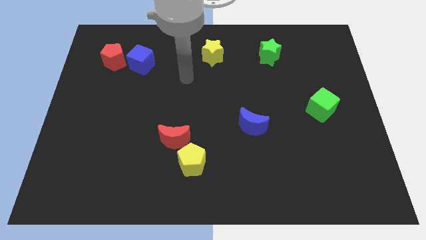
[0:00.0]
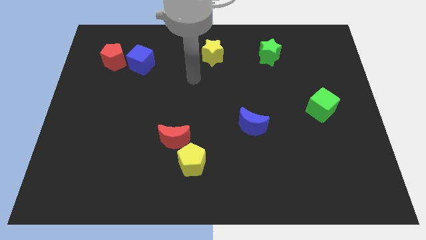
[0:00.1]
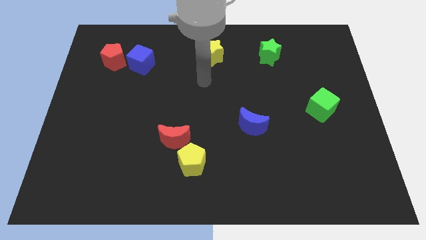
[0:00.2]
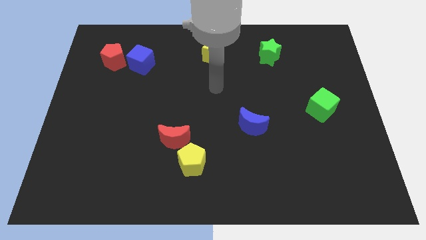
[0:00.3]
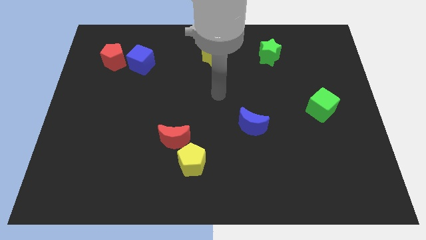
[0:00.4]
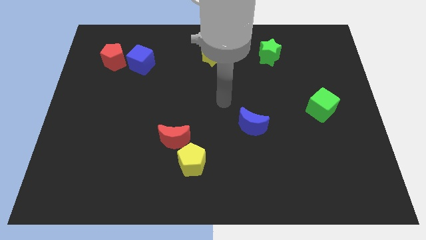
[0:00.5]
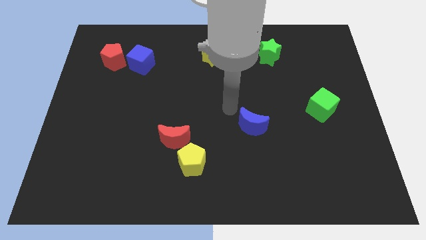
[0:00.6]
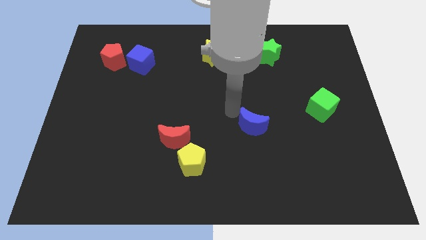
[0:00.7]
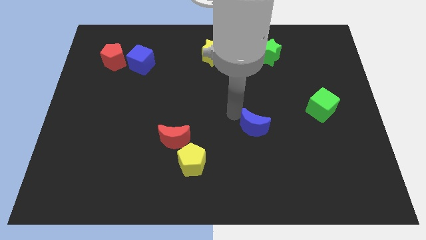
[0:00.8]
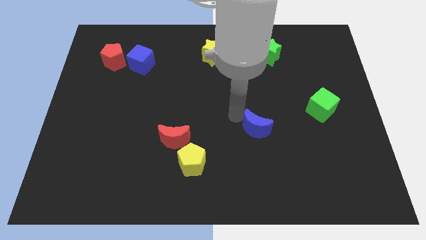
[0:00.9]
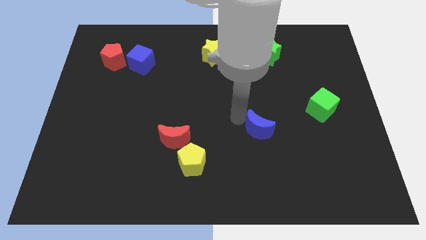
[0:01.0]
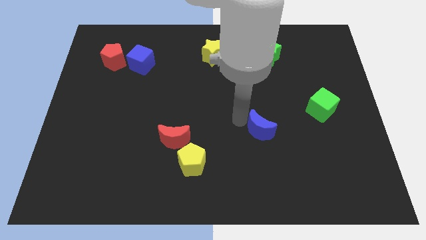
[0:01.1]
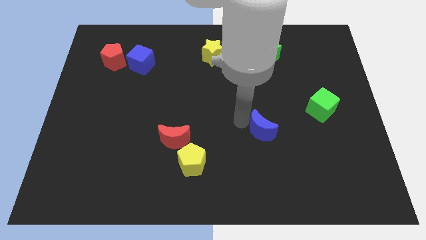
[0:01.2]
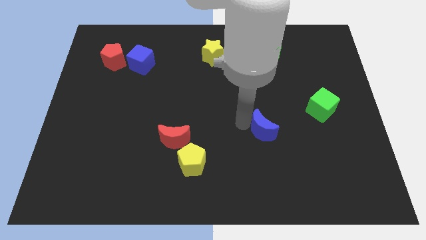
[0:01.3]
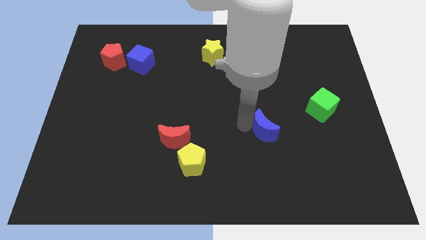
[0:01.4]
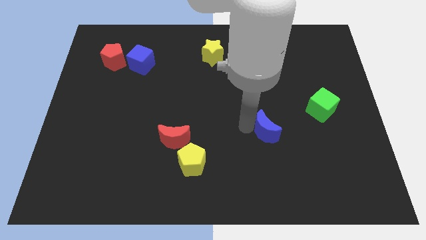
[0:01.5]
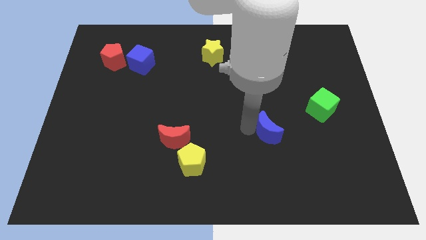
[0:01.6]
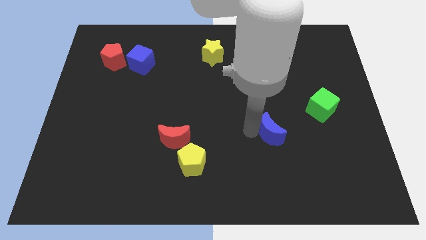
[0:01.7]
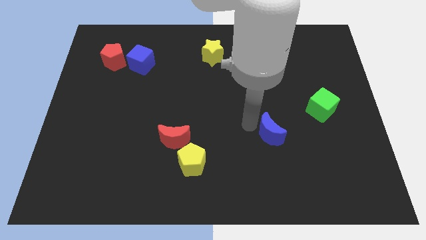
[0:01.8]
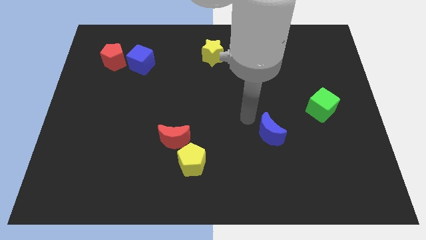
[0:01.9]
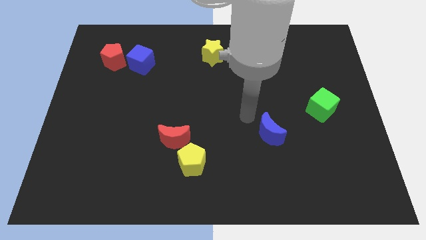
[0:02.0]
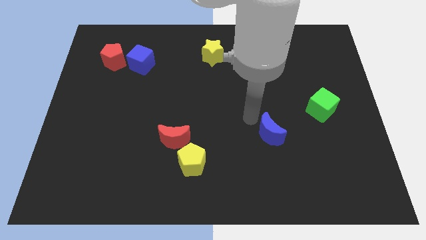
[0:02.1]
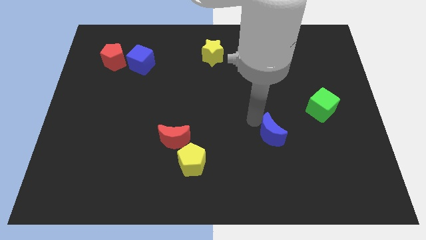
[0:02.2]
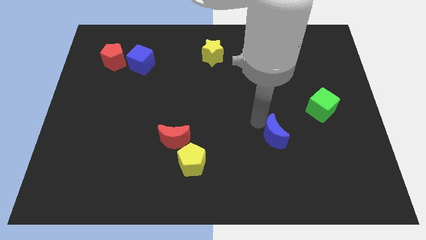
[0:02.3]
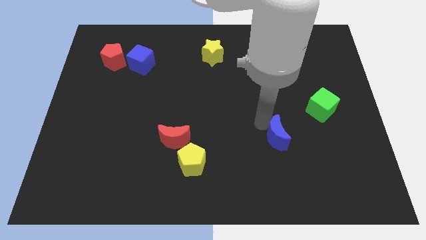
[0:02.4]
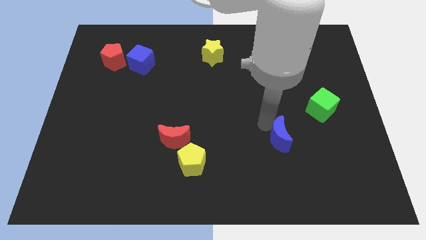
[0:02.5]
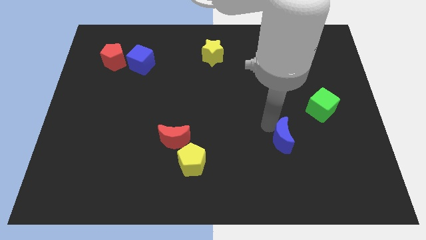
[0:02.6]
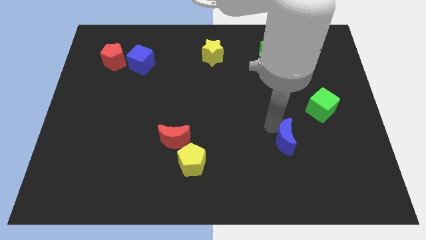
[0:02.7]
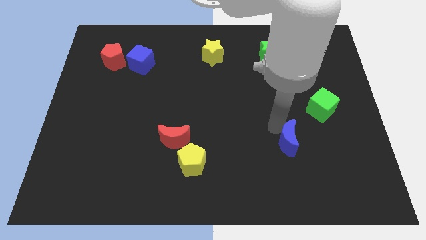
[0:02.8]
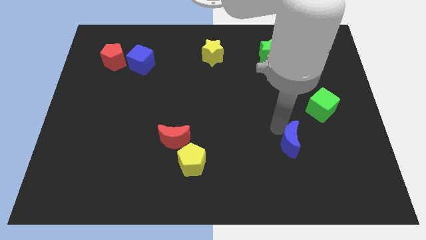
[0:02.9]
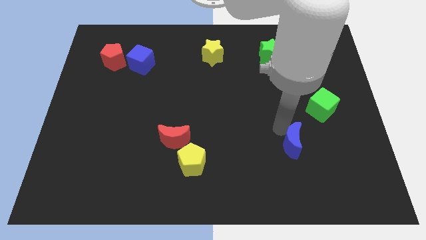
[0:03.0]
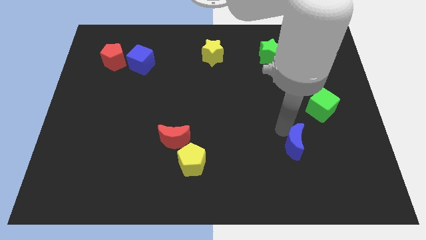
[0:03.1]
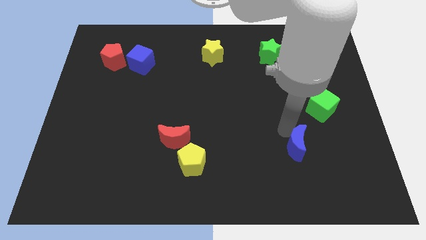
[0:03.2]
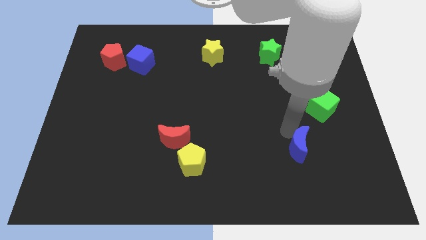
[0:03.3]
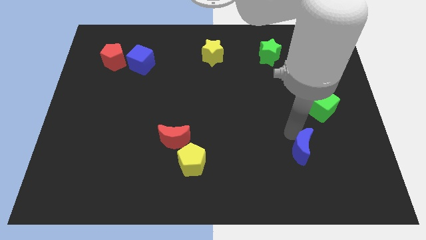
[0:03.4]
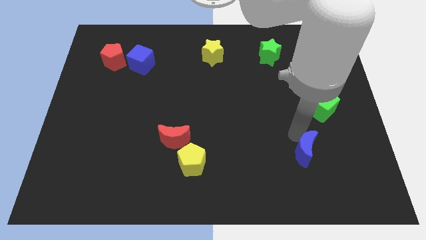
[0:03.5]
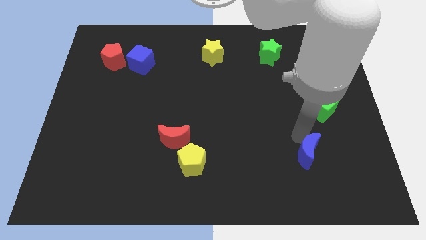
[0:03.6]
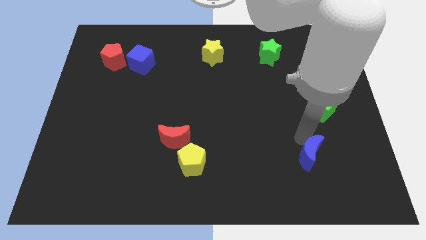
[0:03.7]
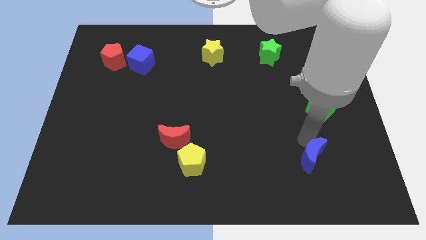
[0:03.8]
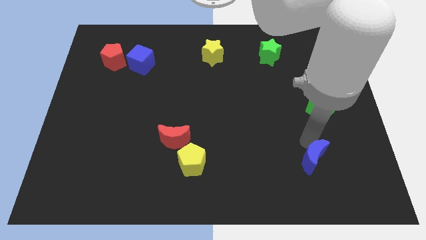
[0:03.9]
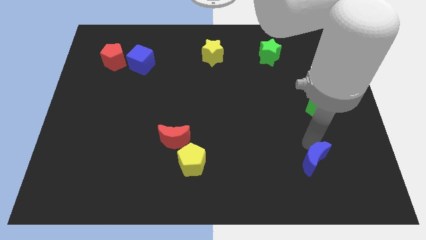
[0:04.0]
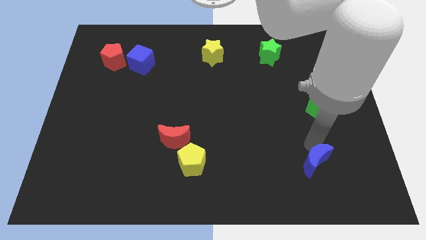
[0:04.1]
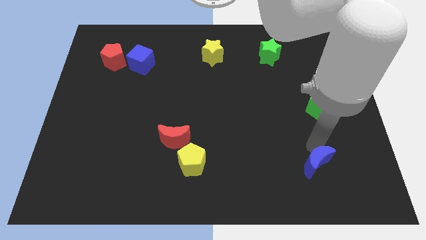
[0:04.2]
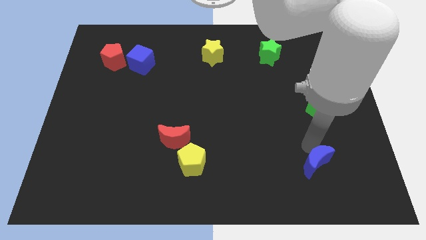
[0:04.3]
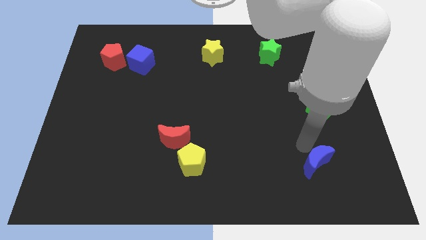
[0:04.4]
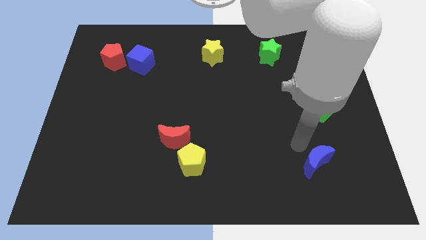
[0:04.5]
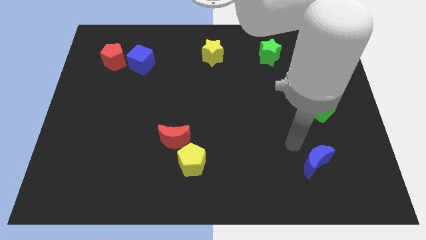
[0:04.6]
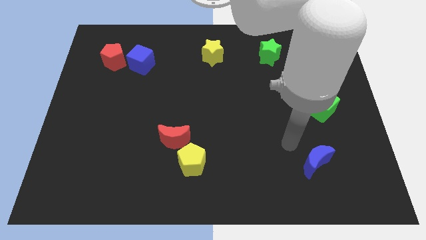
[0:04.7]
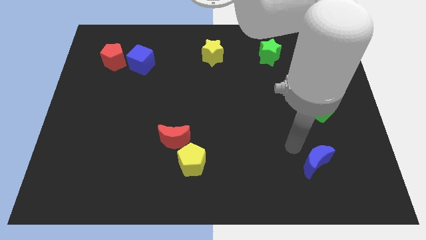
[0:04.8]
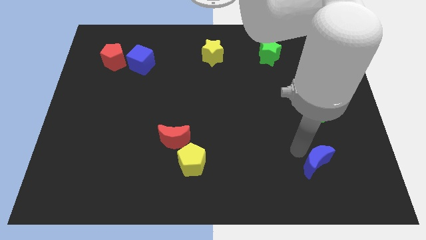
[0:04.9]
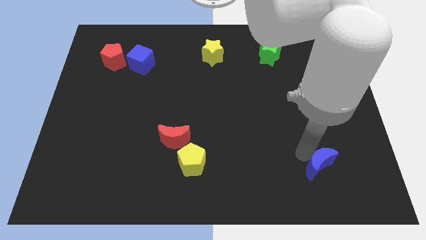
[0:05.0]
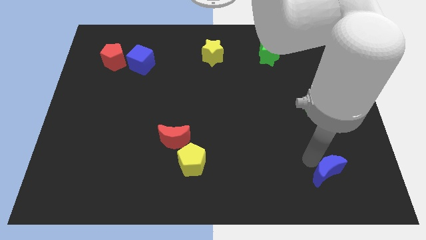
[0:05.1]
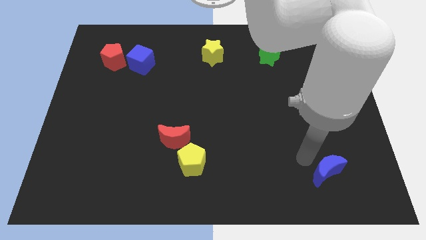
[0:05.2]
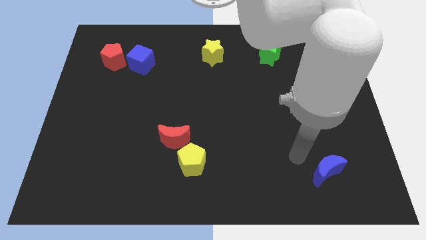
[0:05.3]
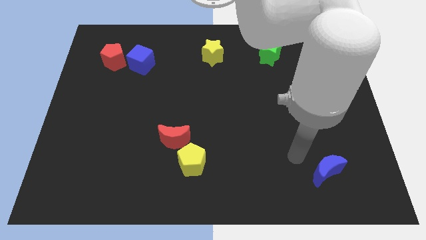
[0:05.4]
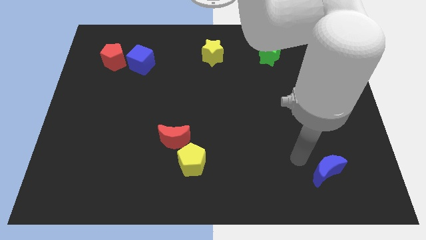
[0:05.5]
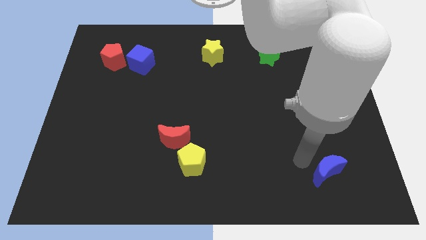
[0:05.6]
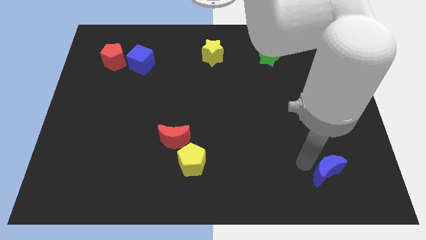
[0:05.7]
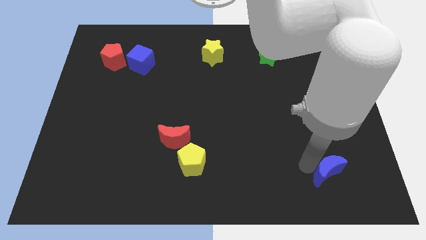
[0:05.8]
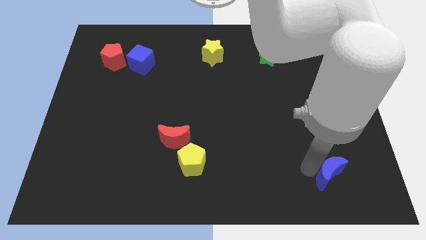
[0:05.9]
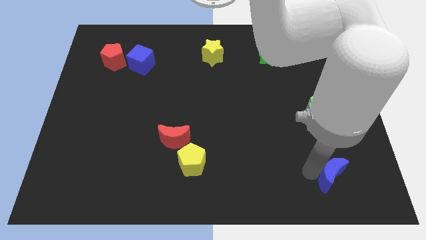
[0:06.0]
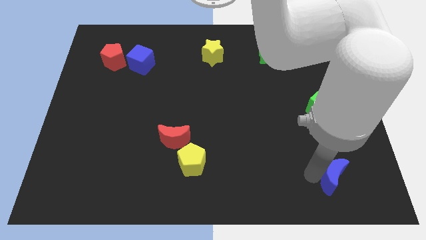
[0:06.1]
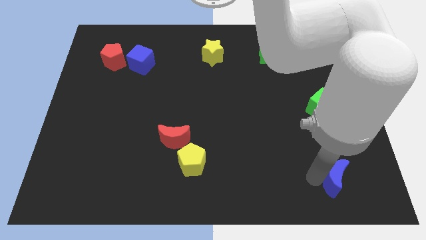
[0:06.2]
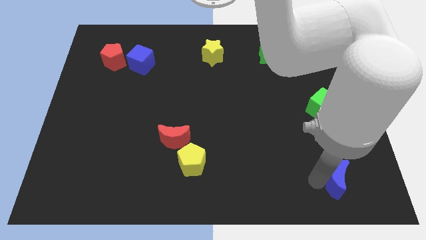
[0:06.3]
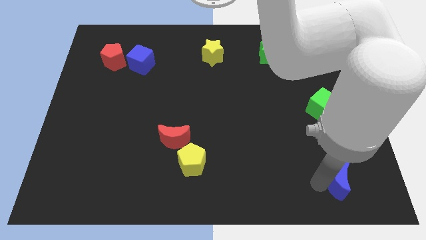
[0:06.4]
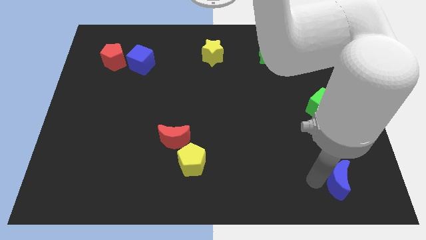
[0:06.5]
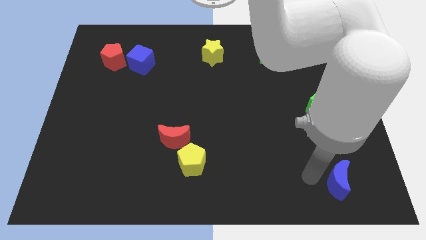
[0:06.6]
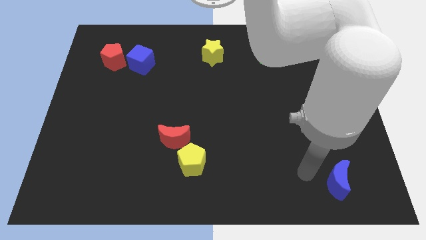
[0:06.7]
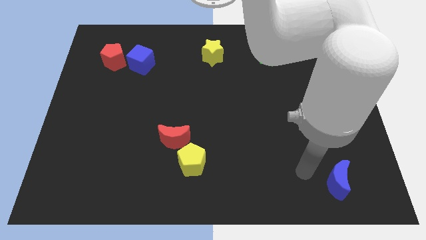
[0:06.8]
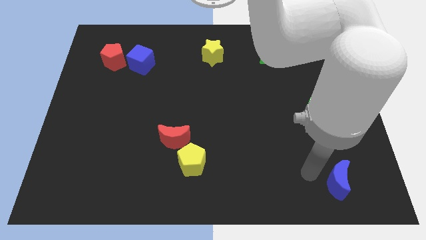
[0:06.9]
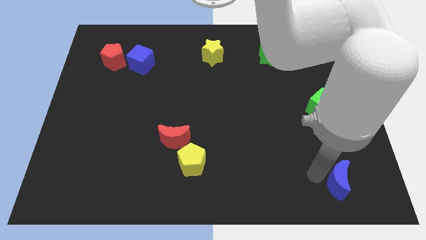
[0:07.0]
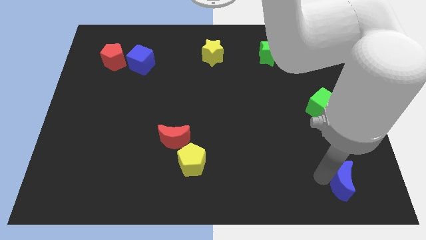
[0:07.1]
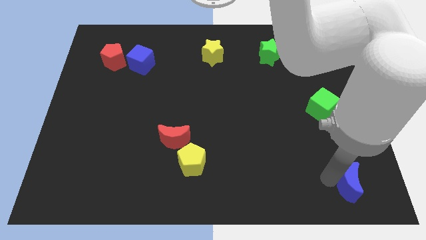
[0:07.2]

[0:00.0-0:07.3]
slide the blue moon to the bottom right
